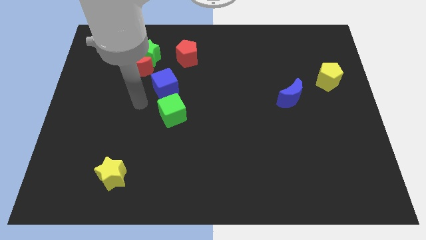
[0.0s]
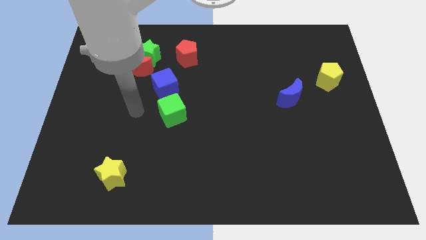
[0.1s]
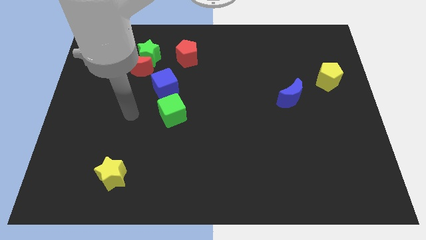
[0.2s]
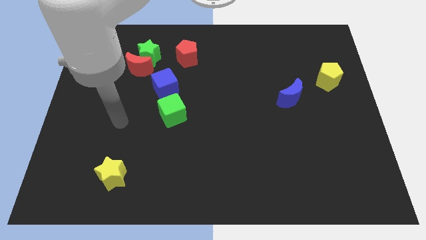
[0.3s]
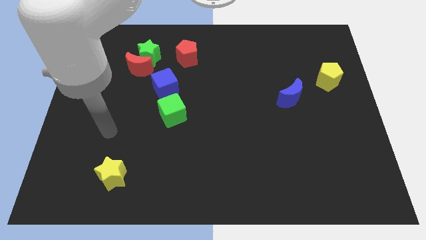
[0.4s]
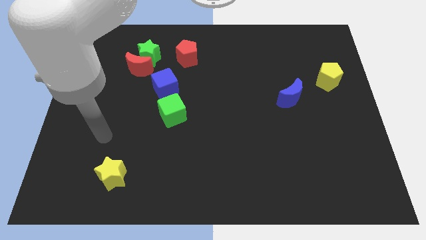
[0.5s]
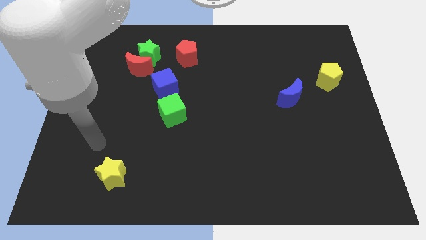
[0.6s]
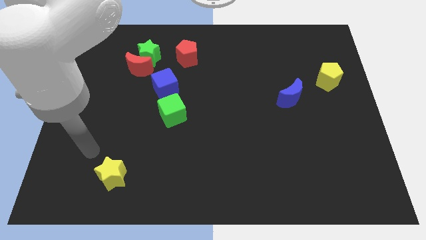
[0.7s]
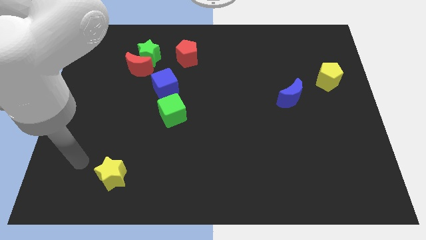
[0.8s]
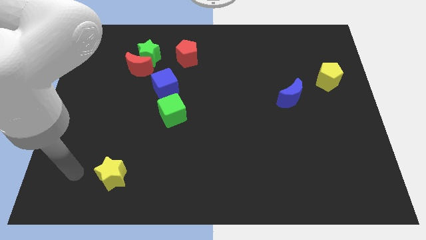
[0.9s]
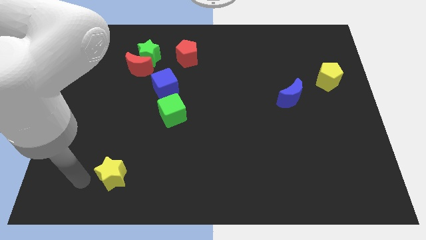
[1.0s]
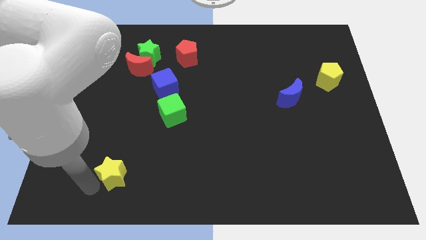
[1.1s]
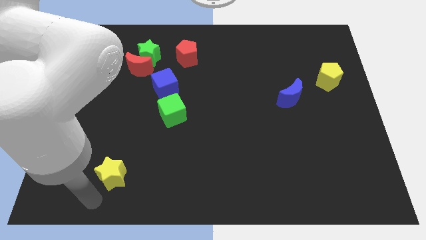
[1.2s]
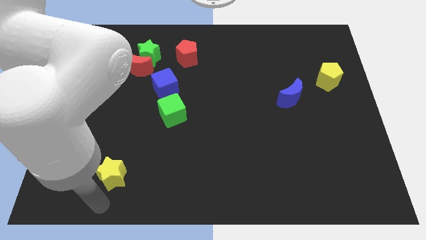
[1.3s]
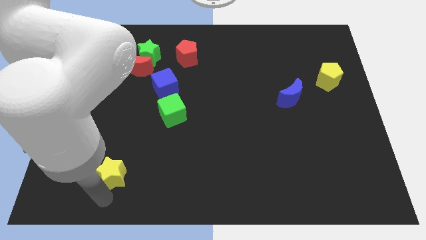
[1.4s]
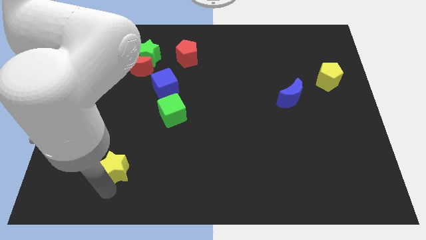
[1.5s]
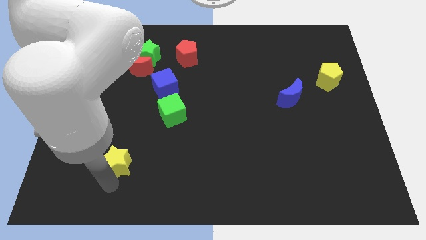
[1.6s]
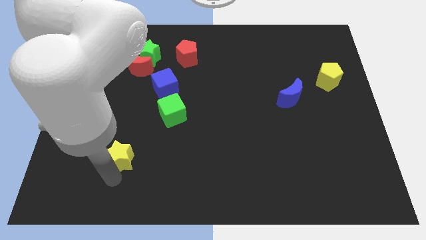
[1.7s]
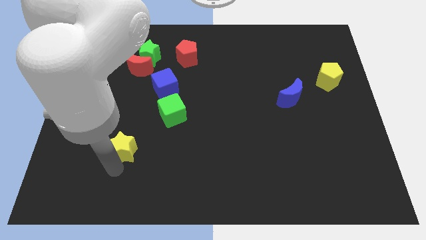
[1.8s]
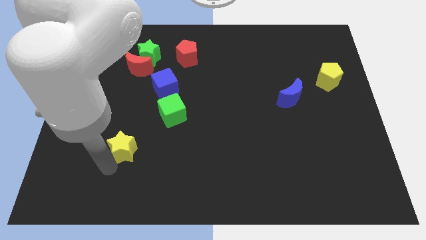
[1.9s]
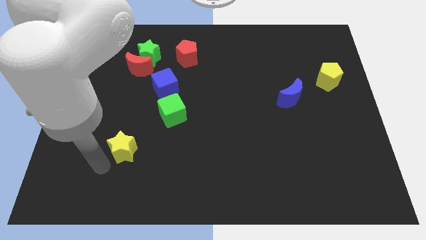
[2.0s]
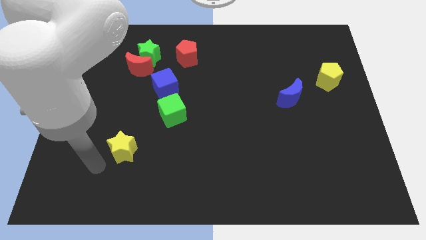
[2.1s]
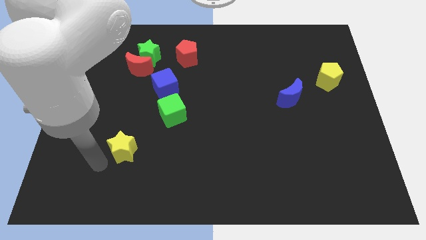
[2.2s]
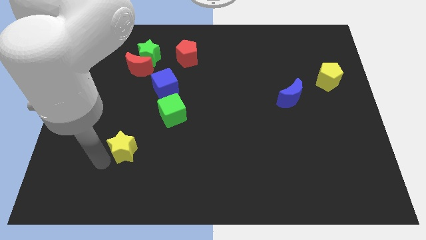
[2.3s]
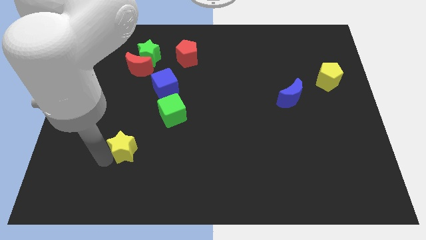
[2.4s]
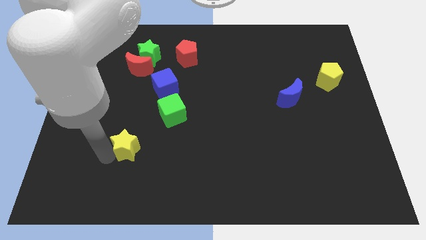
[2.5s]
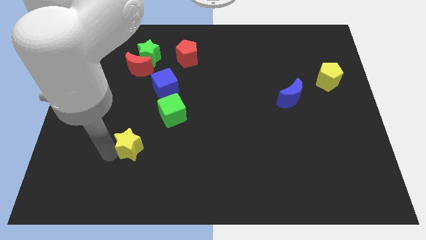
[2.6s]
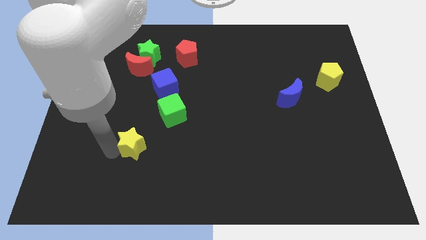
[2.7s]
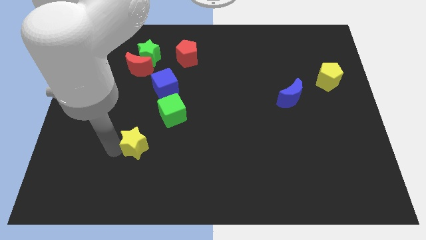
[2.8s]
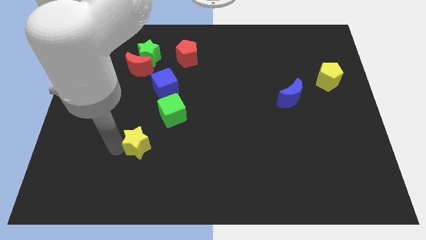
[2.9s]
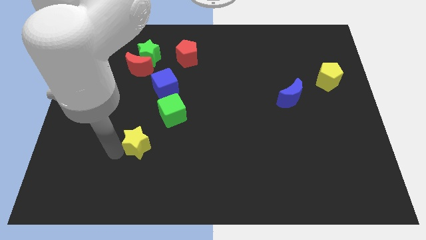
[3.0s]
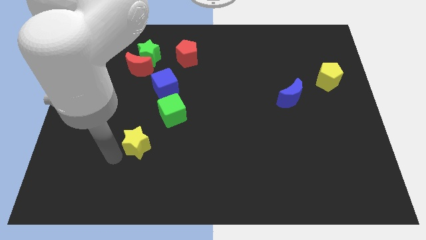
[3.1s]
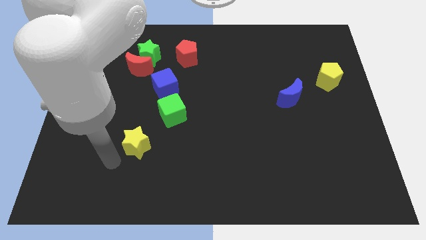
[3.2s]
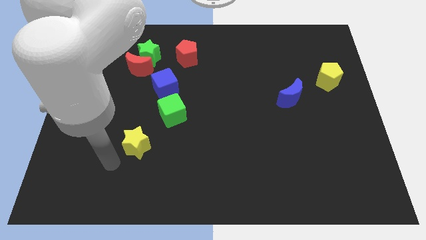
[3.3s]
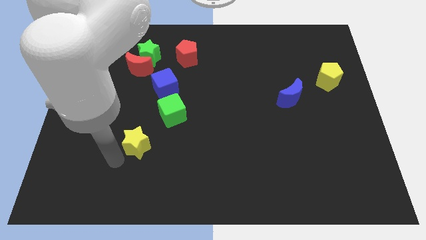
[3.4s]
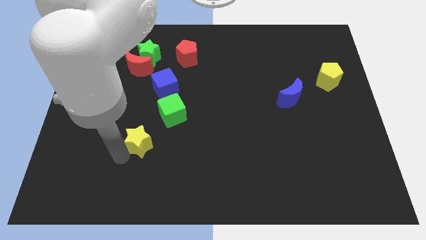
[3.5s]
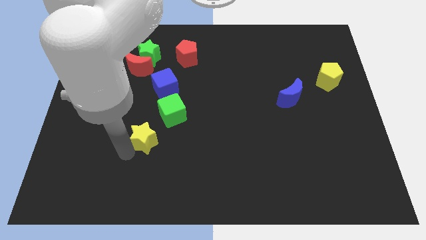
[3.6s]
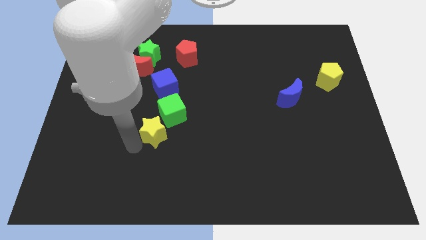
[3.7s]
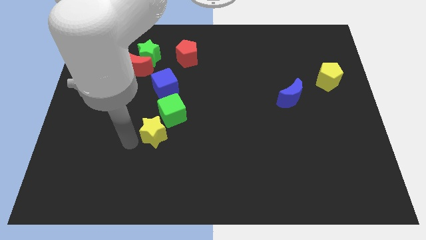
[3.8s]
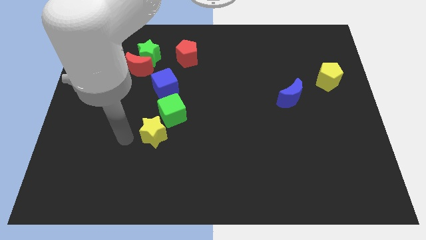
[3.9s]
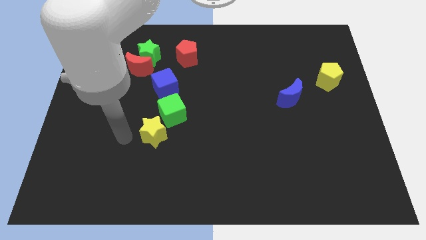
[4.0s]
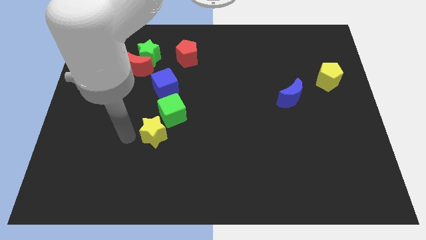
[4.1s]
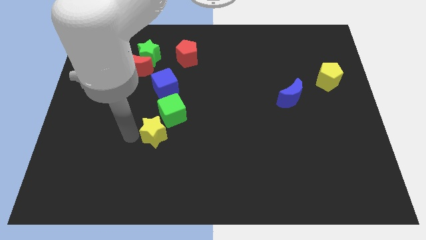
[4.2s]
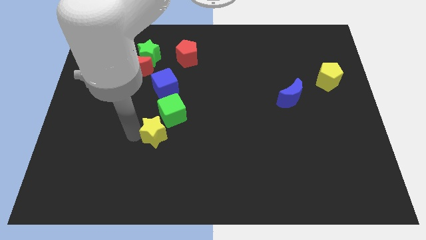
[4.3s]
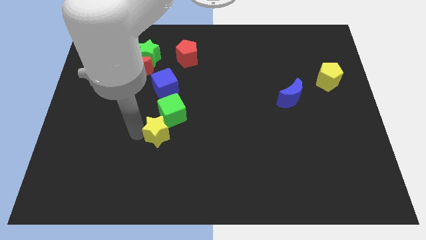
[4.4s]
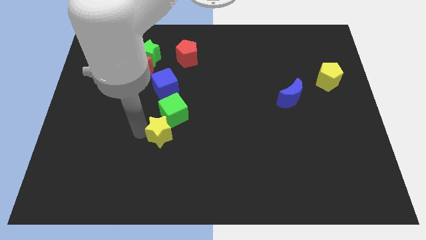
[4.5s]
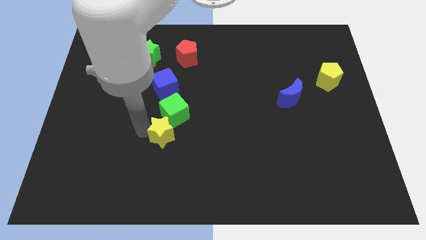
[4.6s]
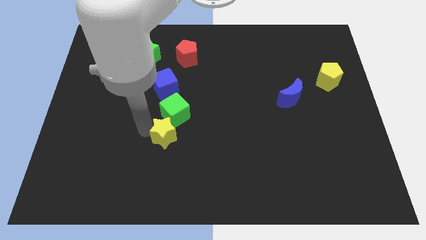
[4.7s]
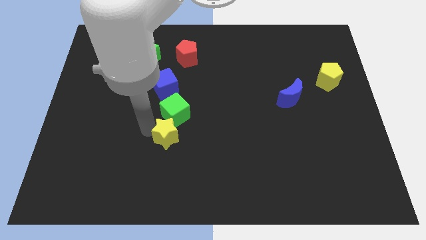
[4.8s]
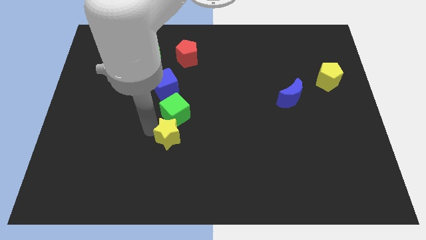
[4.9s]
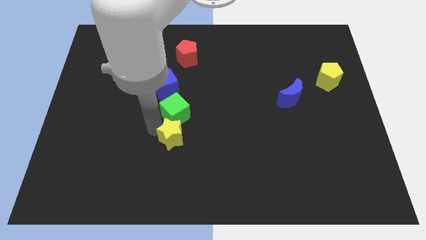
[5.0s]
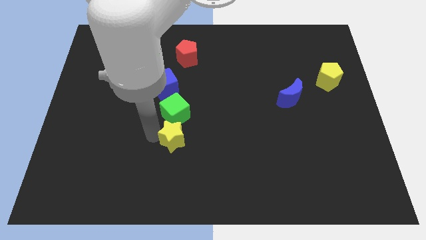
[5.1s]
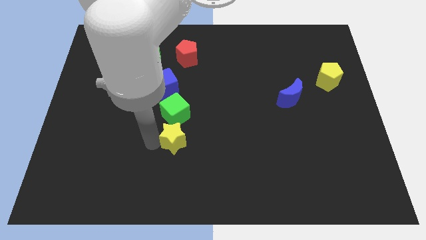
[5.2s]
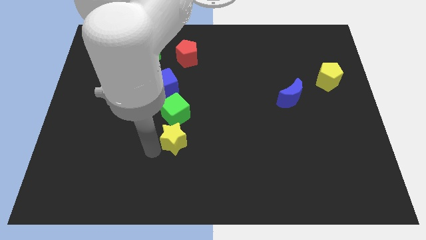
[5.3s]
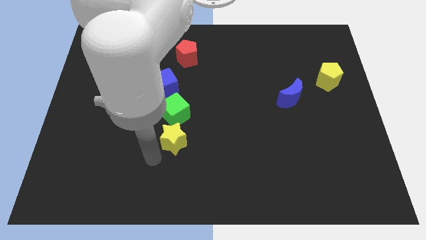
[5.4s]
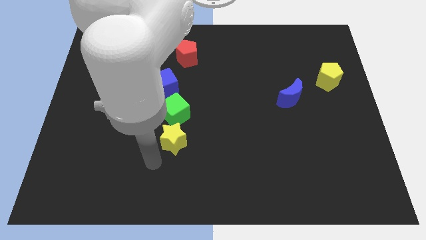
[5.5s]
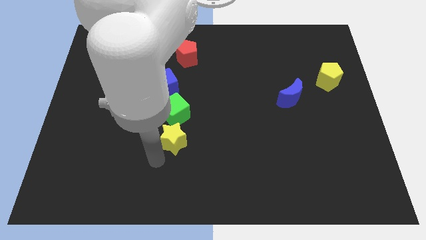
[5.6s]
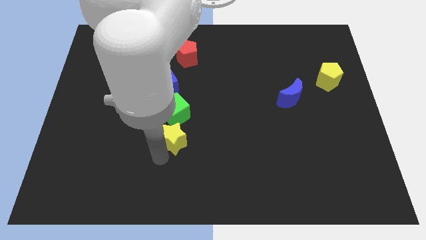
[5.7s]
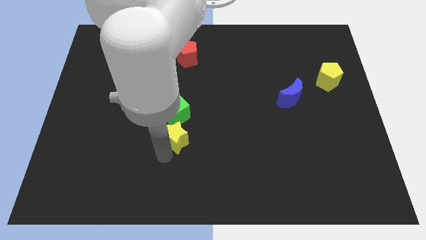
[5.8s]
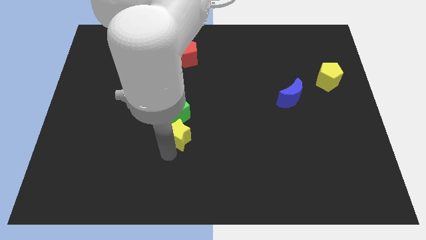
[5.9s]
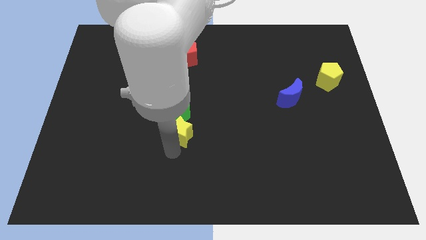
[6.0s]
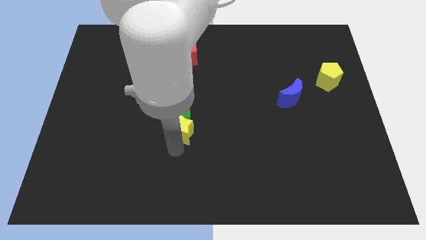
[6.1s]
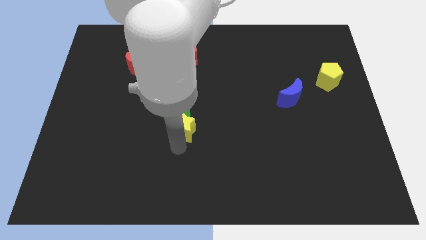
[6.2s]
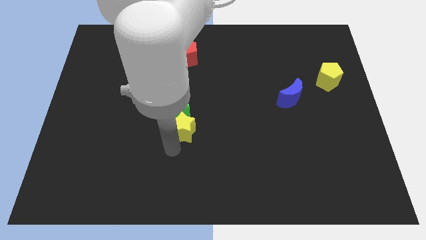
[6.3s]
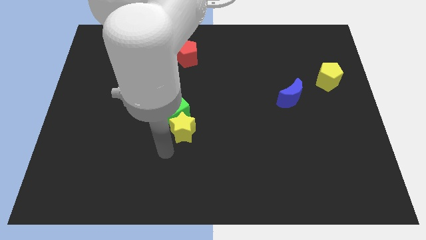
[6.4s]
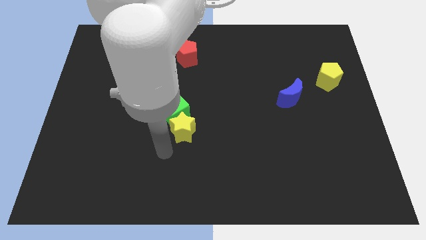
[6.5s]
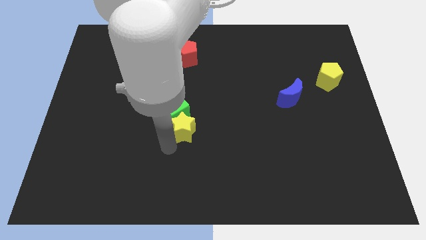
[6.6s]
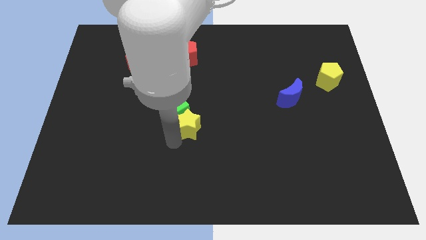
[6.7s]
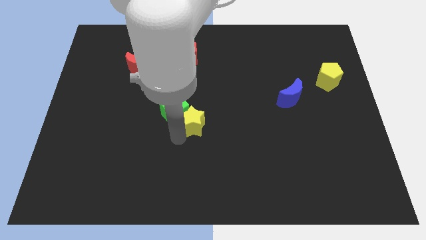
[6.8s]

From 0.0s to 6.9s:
slide the yellow star up and right

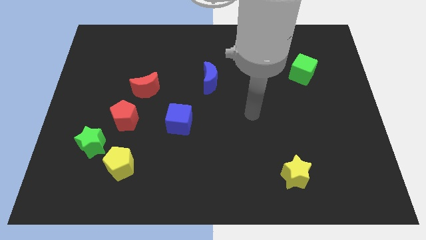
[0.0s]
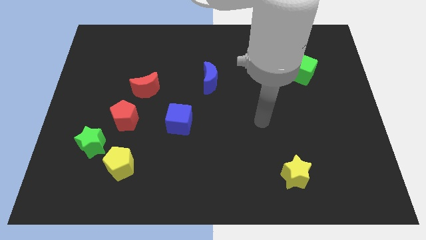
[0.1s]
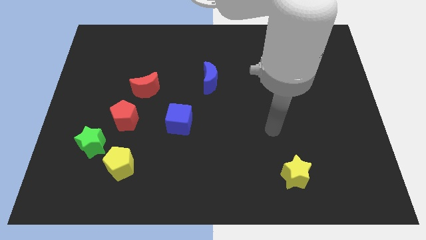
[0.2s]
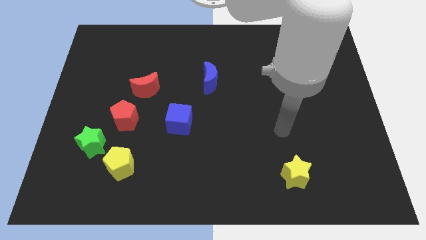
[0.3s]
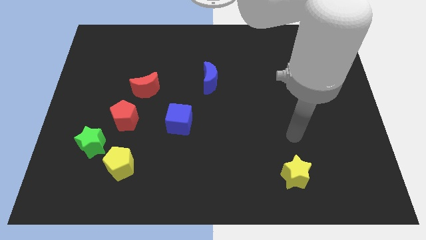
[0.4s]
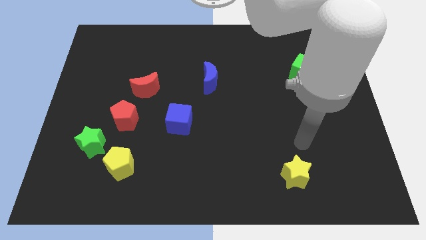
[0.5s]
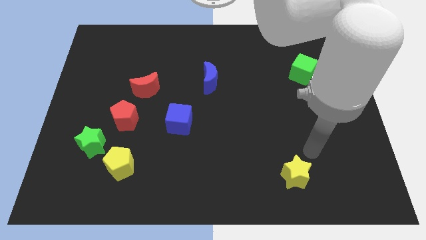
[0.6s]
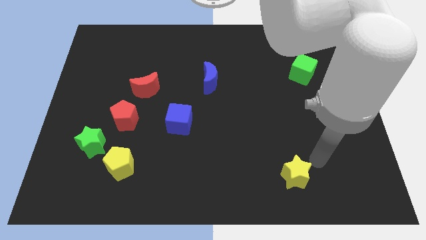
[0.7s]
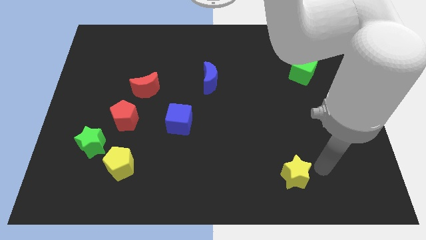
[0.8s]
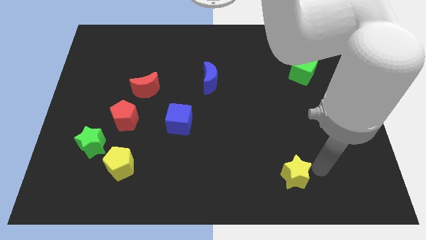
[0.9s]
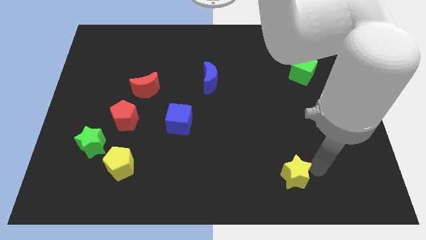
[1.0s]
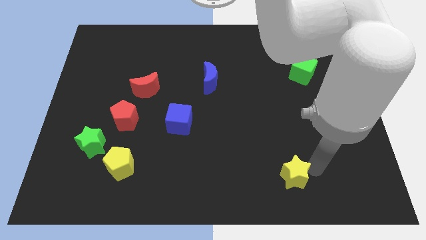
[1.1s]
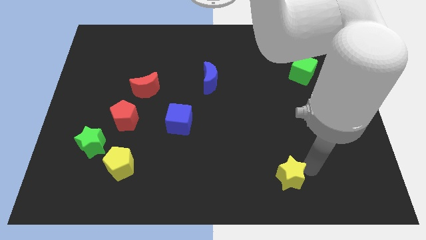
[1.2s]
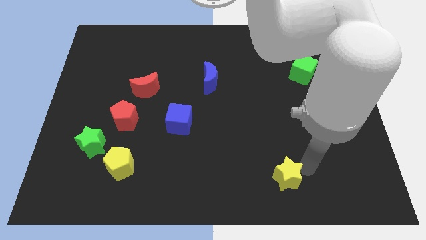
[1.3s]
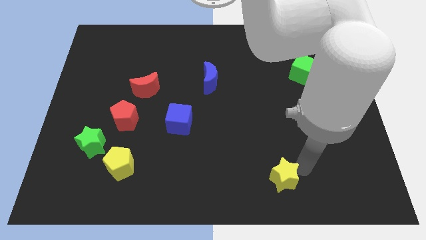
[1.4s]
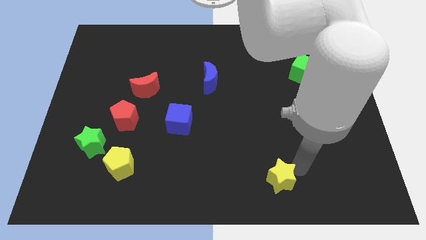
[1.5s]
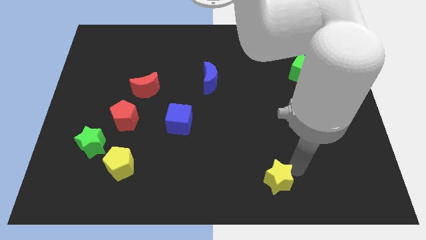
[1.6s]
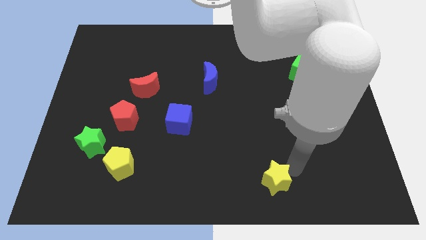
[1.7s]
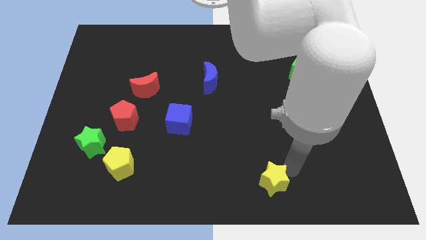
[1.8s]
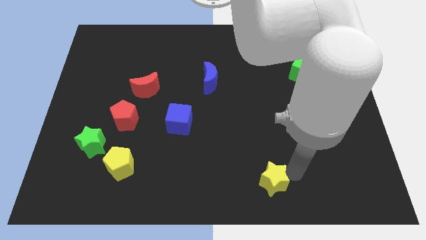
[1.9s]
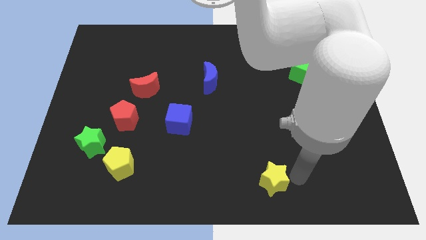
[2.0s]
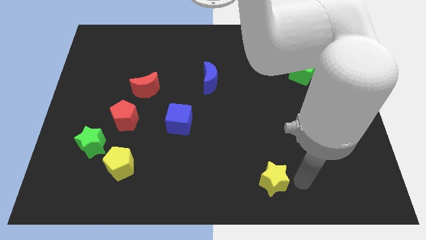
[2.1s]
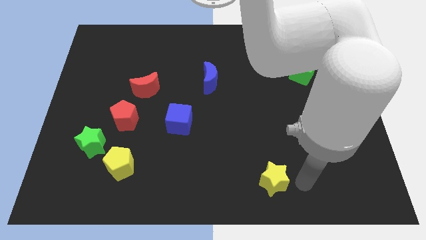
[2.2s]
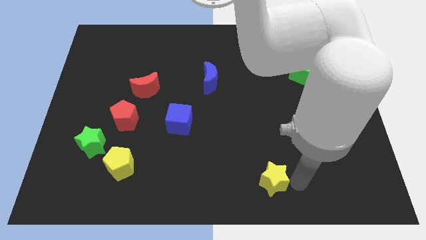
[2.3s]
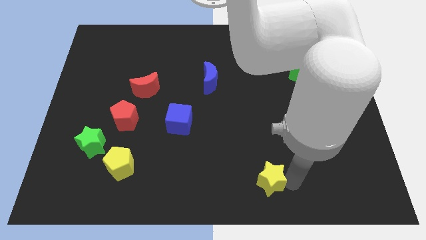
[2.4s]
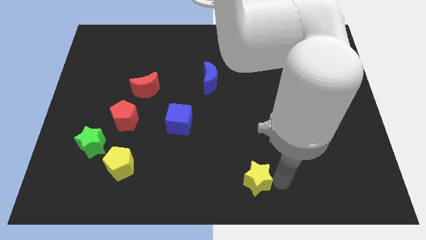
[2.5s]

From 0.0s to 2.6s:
slightly slide the yellow star to the left
